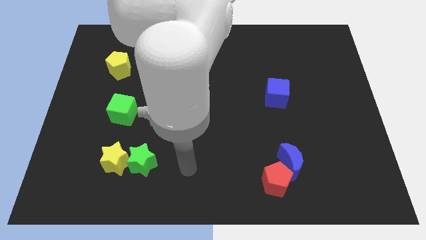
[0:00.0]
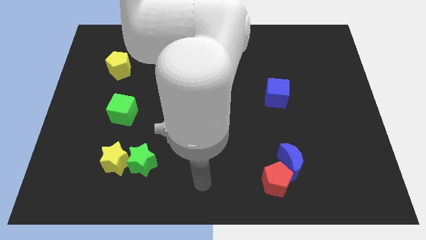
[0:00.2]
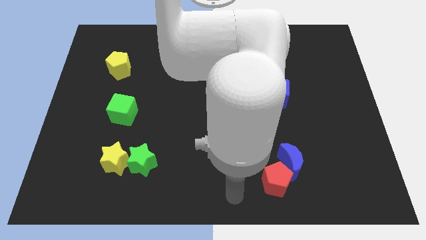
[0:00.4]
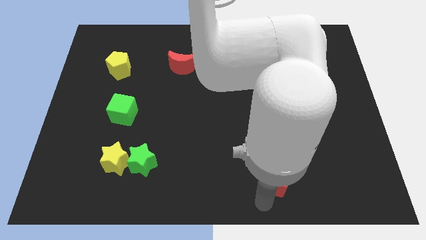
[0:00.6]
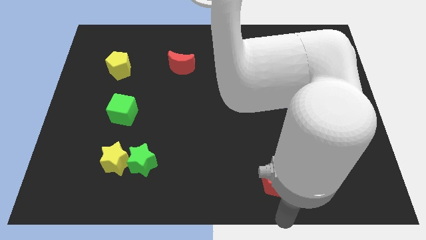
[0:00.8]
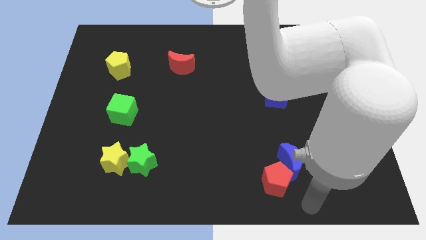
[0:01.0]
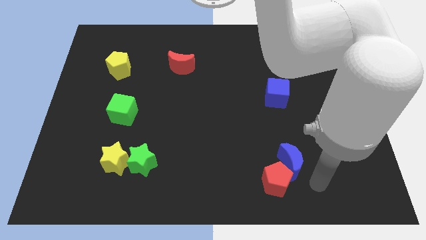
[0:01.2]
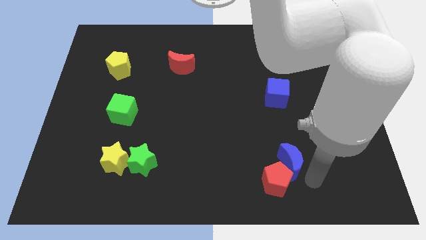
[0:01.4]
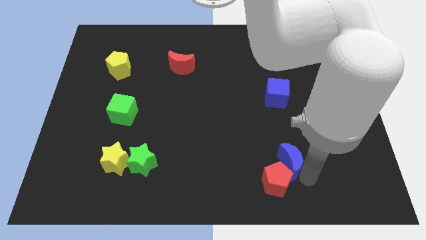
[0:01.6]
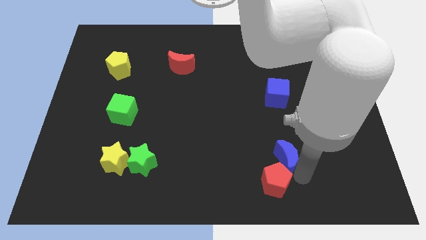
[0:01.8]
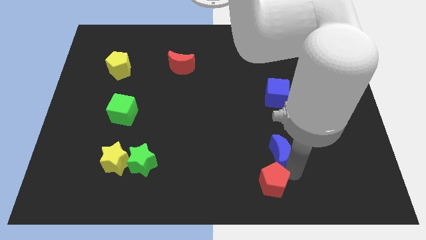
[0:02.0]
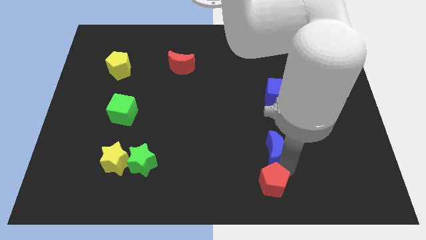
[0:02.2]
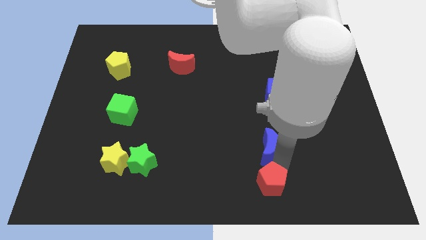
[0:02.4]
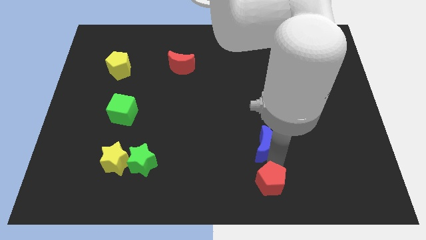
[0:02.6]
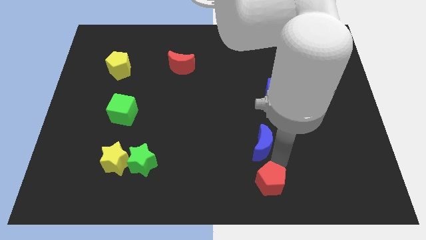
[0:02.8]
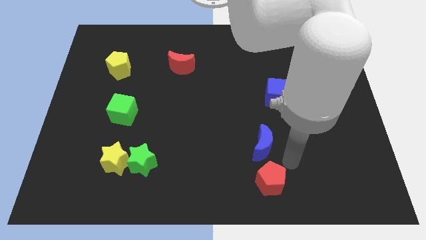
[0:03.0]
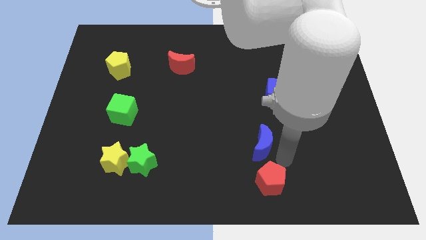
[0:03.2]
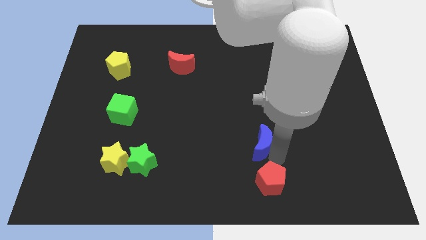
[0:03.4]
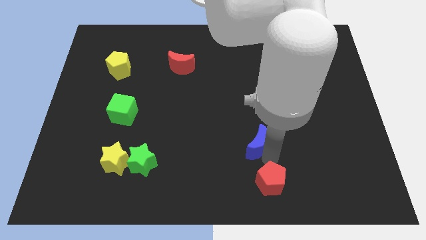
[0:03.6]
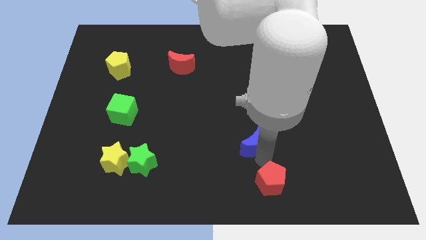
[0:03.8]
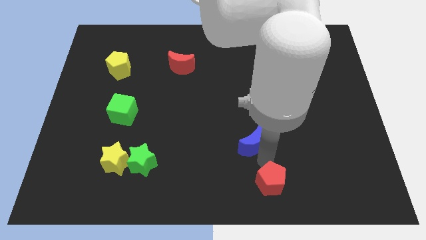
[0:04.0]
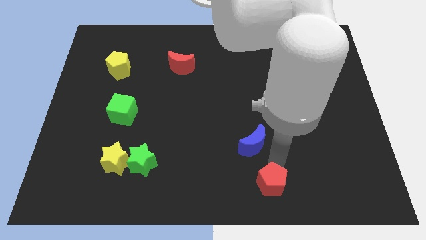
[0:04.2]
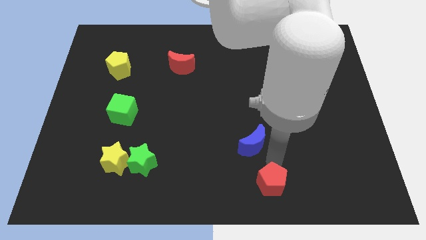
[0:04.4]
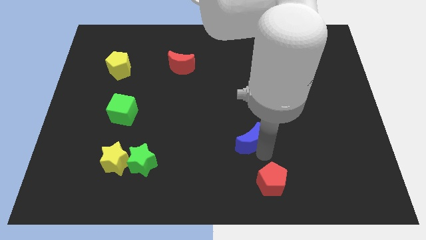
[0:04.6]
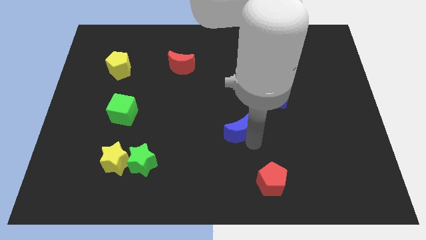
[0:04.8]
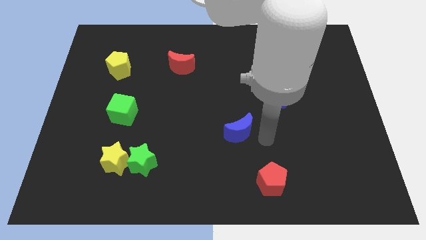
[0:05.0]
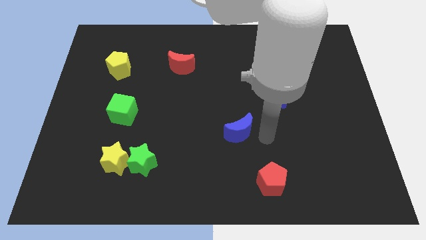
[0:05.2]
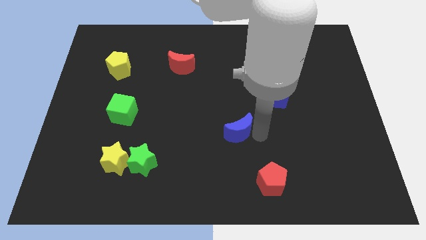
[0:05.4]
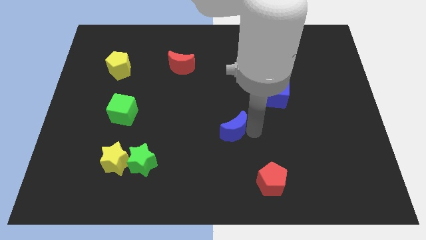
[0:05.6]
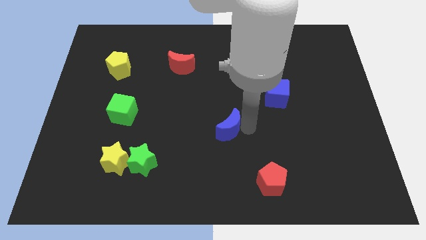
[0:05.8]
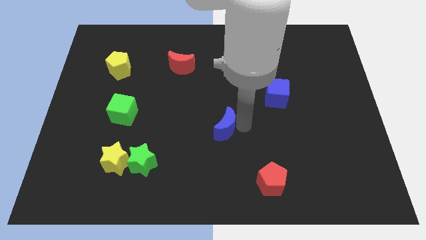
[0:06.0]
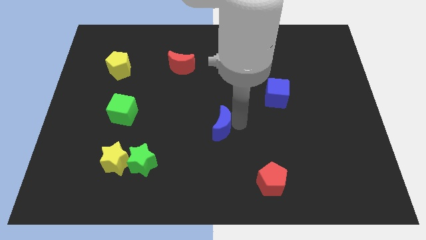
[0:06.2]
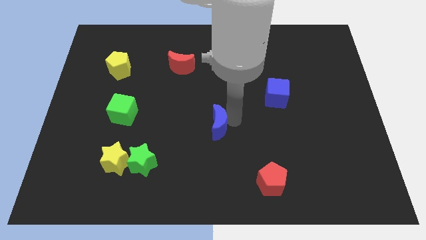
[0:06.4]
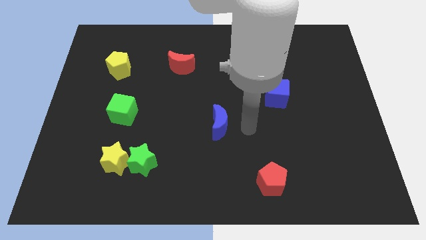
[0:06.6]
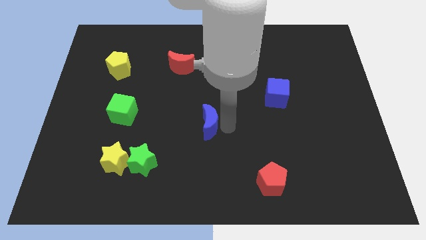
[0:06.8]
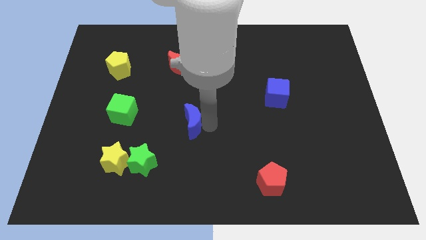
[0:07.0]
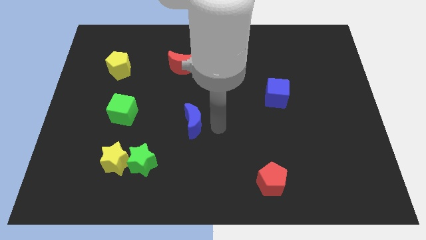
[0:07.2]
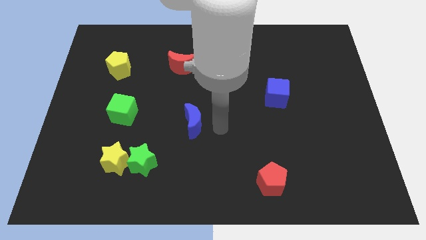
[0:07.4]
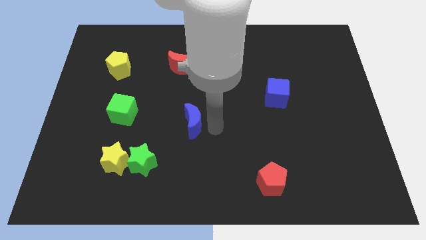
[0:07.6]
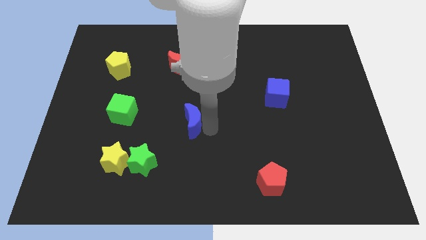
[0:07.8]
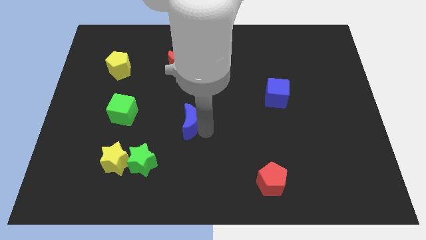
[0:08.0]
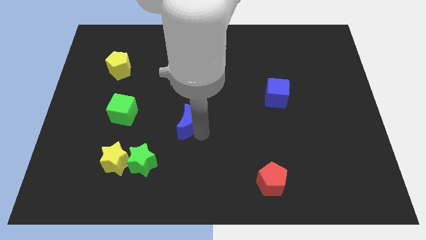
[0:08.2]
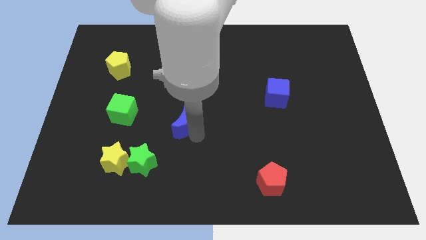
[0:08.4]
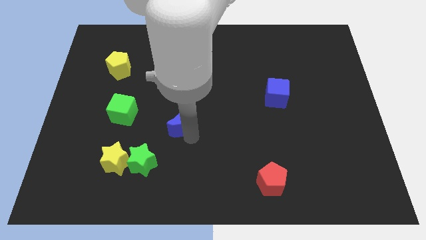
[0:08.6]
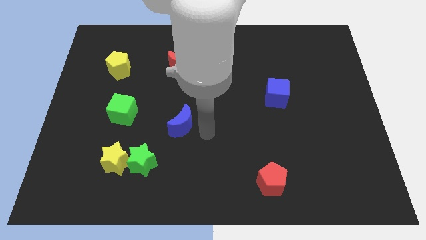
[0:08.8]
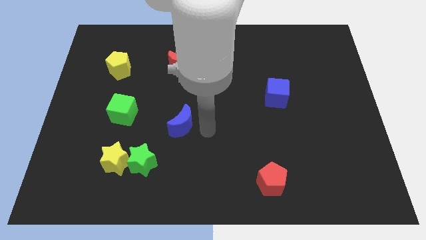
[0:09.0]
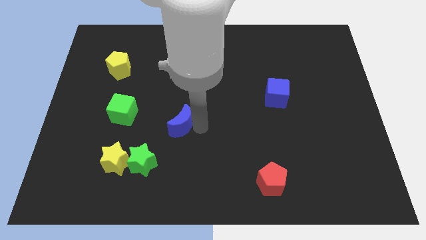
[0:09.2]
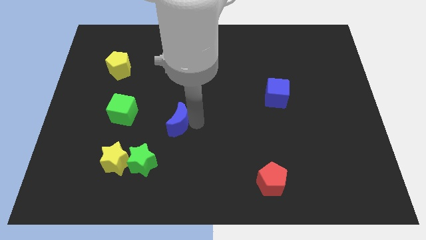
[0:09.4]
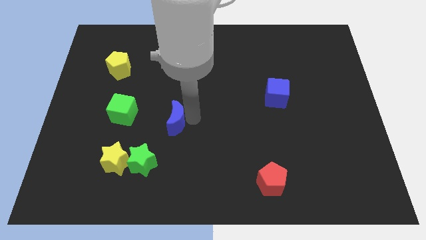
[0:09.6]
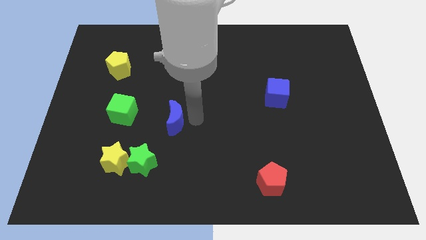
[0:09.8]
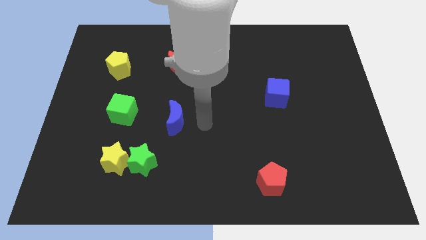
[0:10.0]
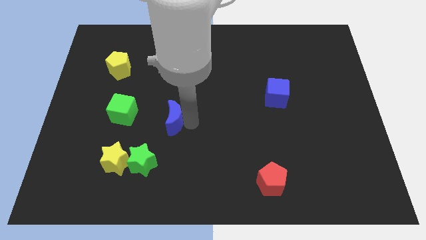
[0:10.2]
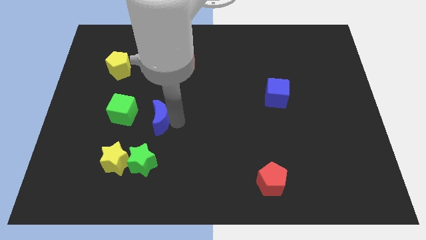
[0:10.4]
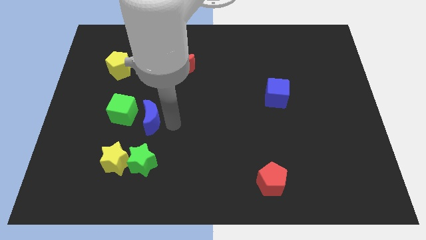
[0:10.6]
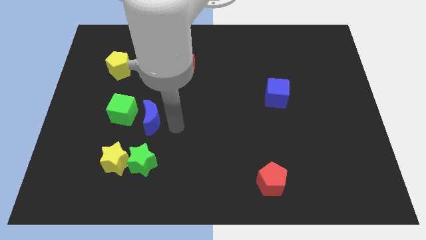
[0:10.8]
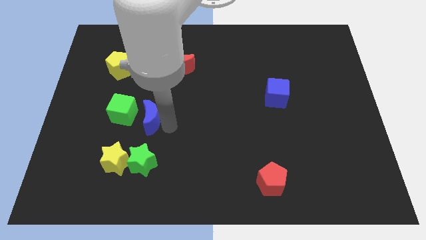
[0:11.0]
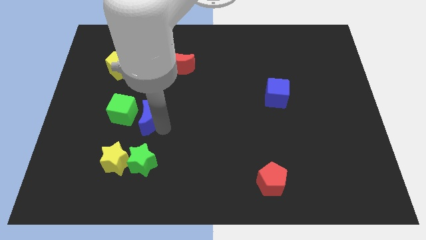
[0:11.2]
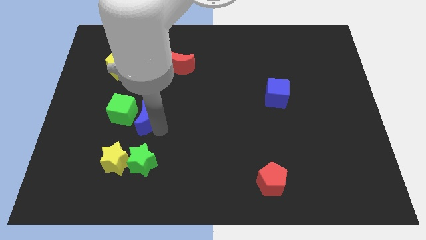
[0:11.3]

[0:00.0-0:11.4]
move the blue moon to the green cube
